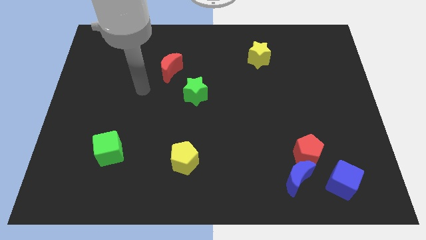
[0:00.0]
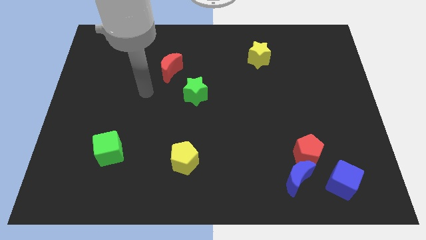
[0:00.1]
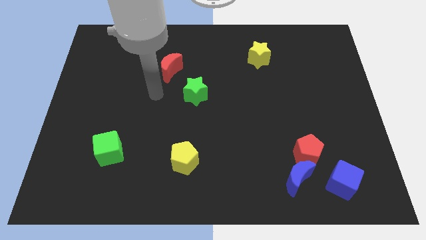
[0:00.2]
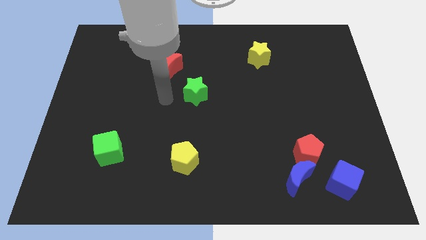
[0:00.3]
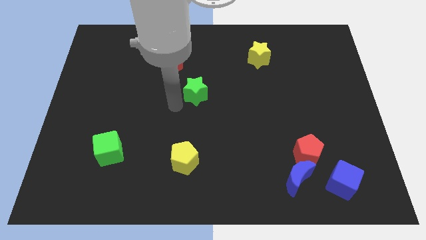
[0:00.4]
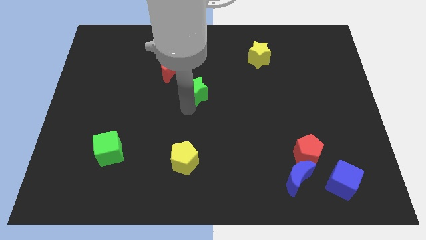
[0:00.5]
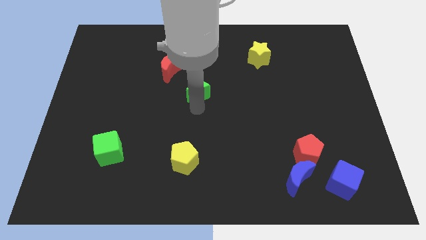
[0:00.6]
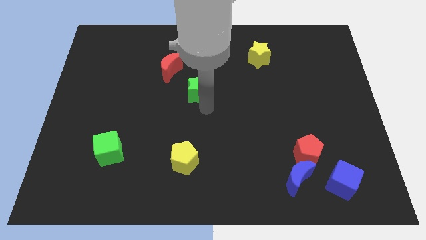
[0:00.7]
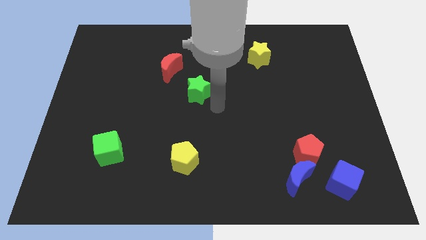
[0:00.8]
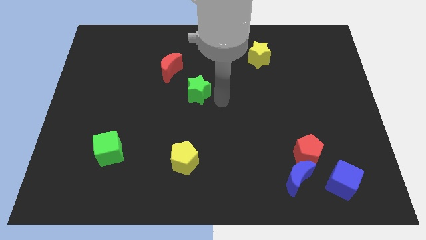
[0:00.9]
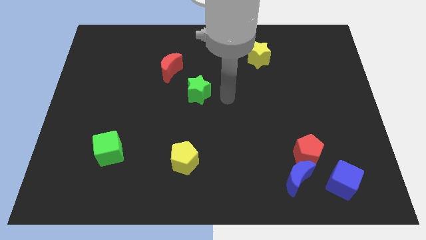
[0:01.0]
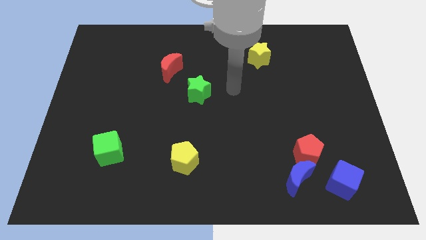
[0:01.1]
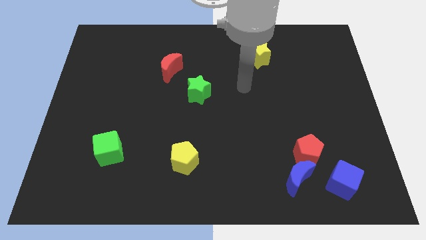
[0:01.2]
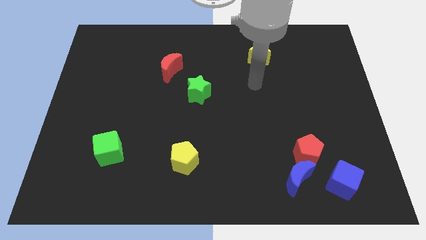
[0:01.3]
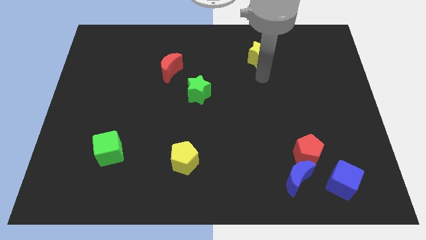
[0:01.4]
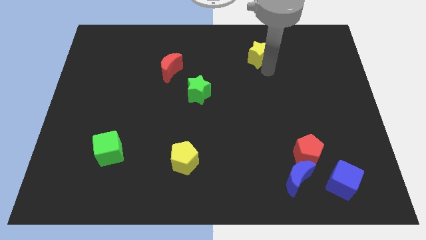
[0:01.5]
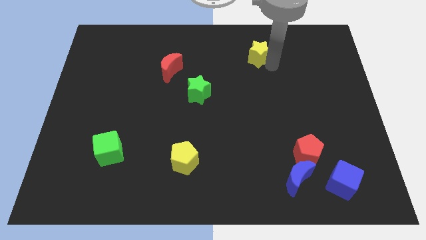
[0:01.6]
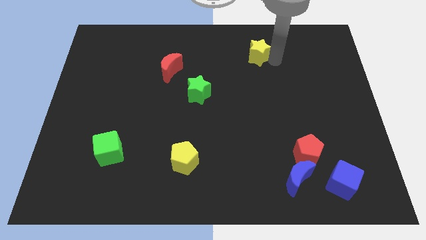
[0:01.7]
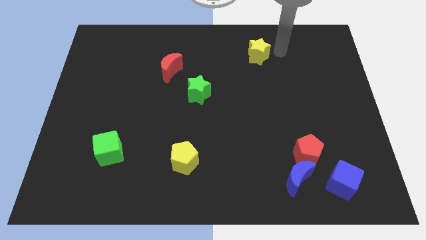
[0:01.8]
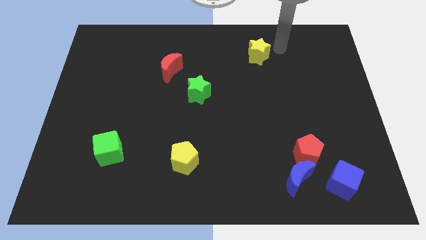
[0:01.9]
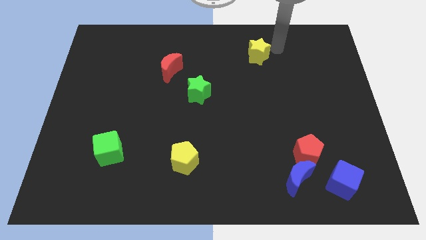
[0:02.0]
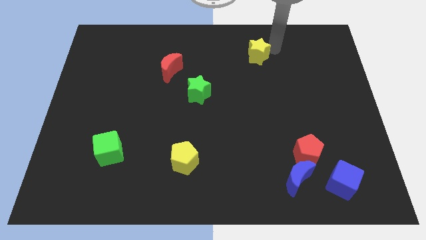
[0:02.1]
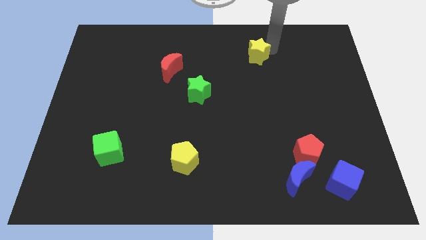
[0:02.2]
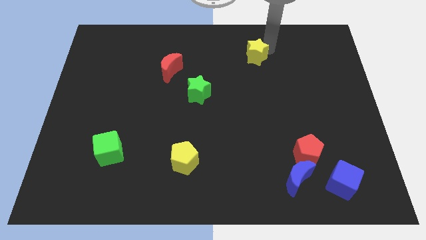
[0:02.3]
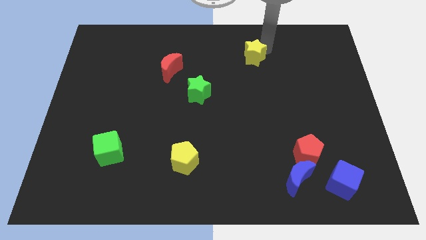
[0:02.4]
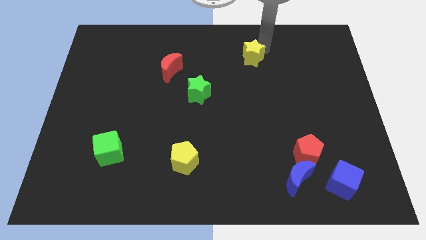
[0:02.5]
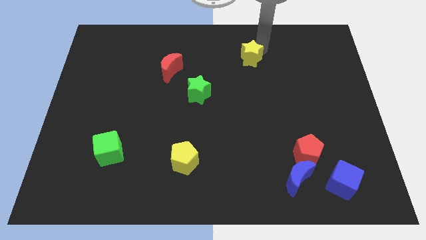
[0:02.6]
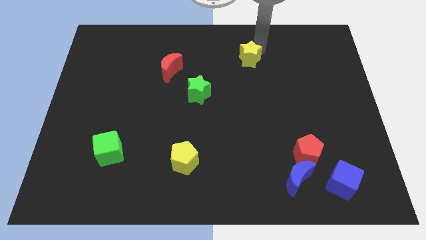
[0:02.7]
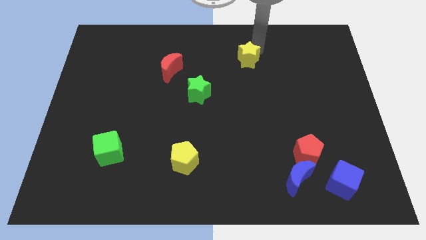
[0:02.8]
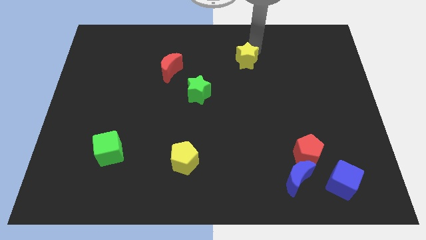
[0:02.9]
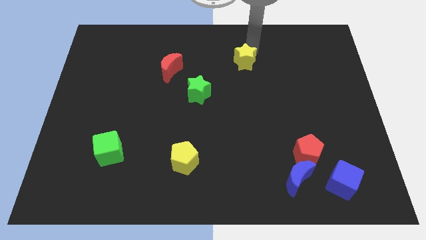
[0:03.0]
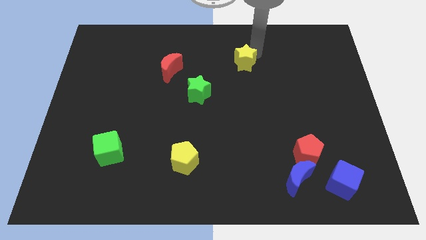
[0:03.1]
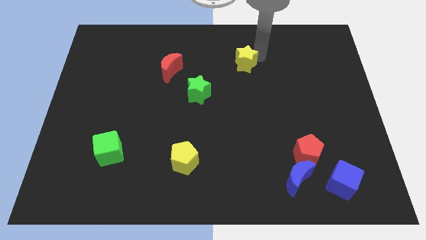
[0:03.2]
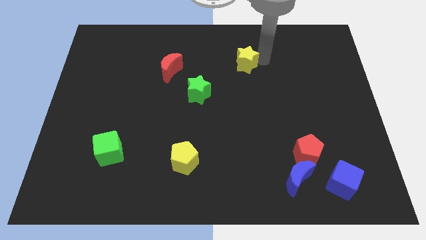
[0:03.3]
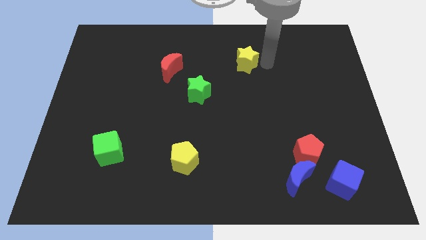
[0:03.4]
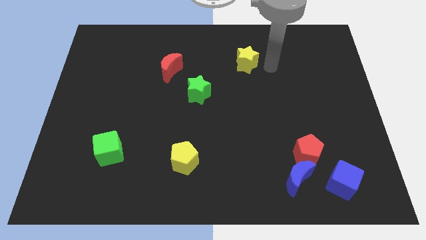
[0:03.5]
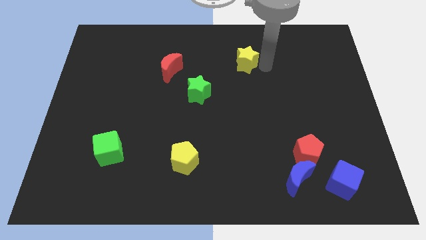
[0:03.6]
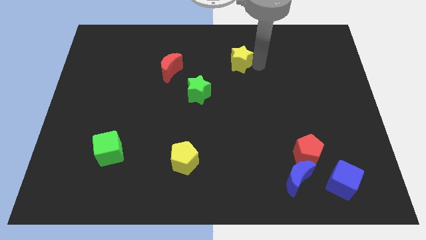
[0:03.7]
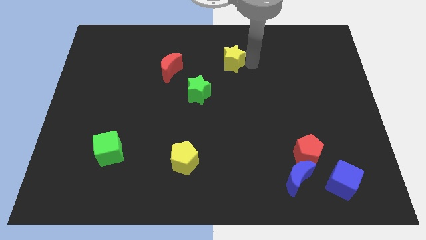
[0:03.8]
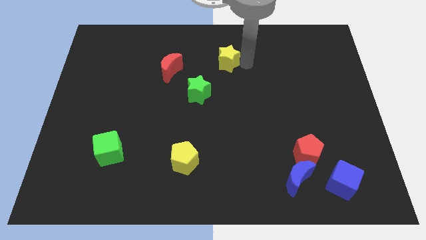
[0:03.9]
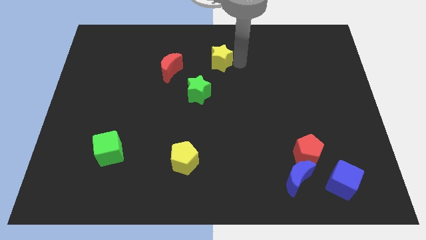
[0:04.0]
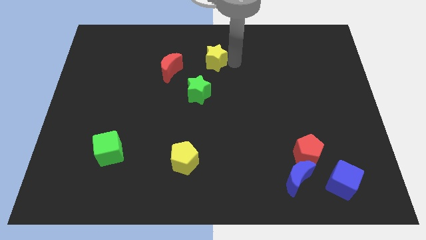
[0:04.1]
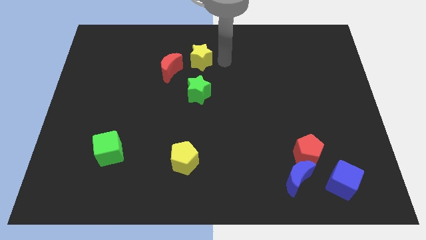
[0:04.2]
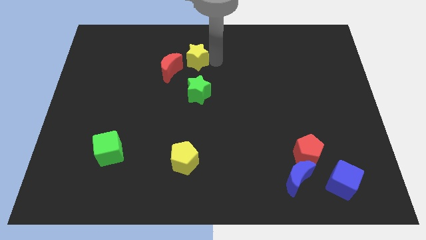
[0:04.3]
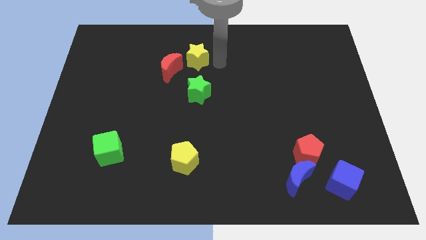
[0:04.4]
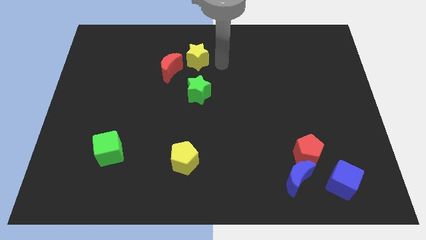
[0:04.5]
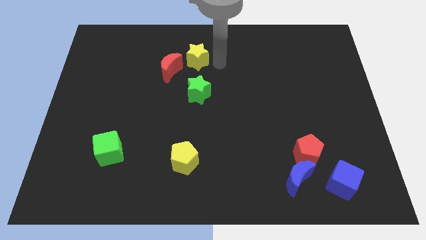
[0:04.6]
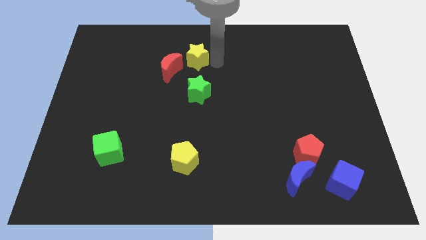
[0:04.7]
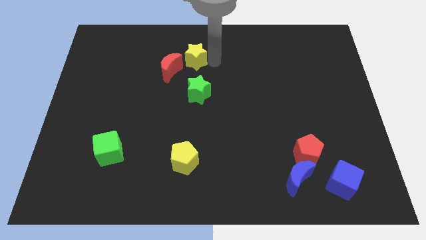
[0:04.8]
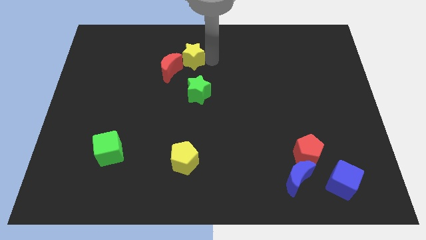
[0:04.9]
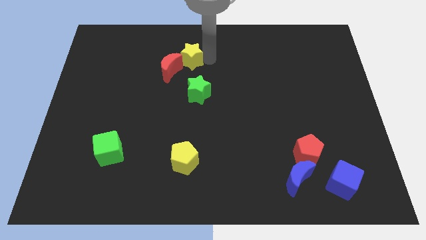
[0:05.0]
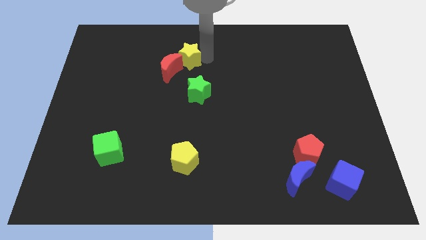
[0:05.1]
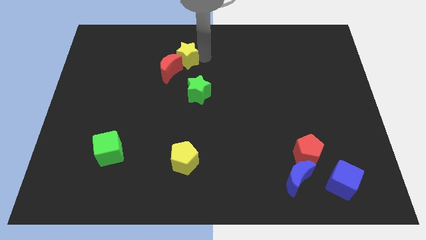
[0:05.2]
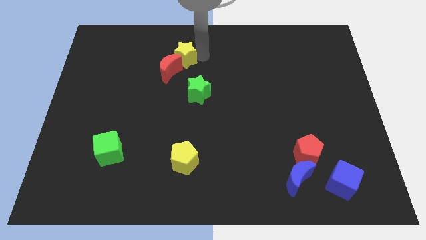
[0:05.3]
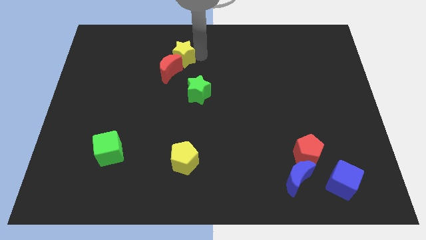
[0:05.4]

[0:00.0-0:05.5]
slide the yellow star to the left

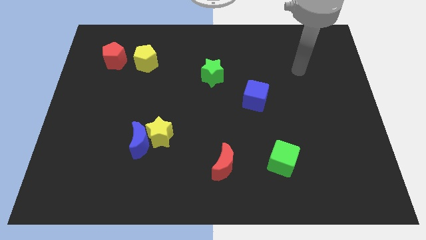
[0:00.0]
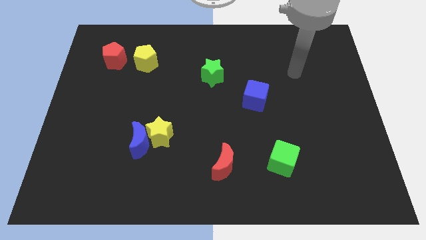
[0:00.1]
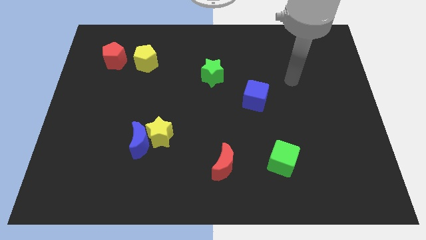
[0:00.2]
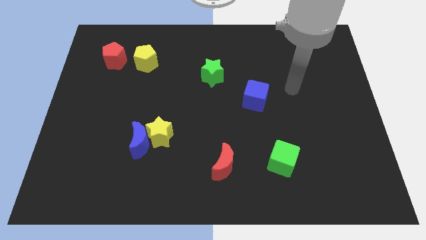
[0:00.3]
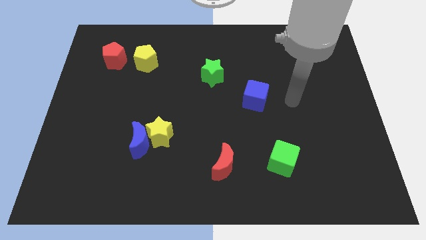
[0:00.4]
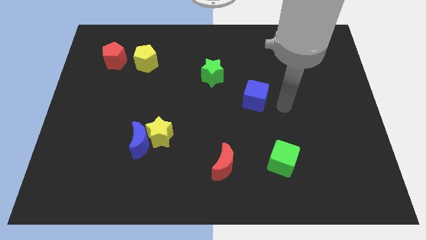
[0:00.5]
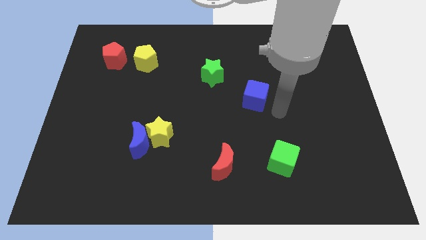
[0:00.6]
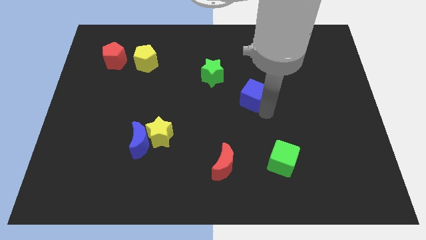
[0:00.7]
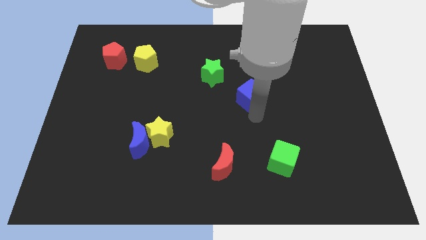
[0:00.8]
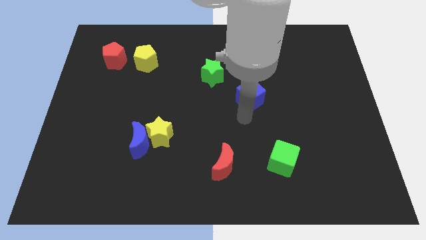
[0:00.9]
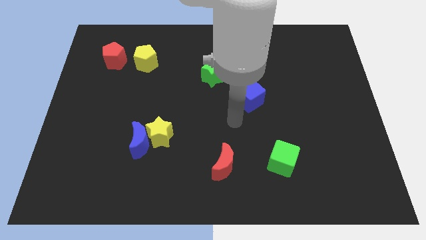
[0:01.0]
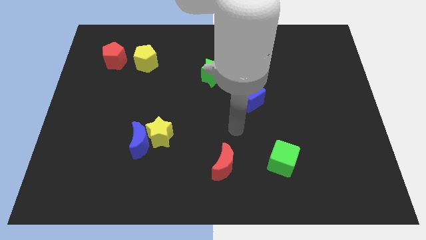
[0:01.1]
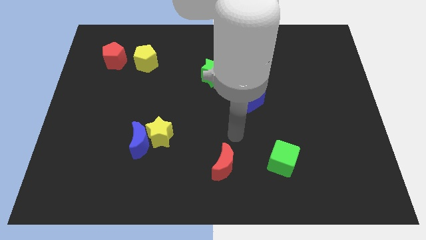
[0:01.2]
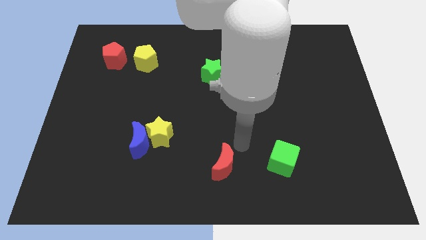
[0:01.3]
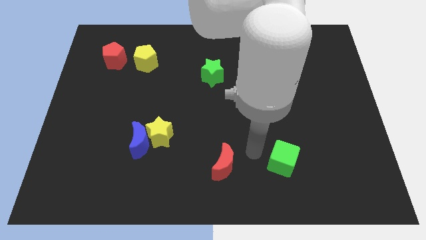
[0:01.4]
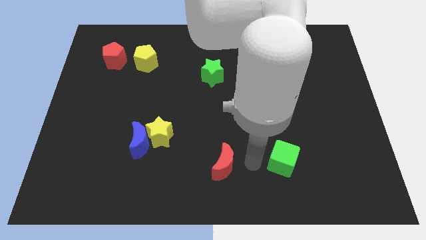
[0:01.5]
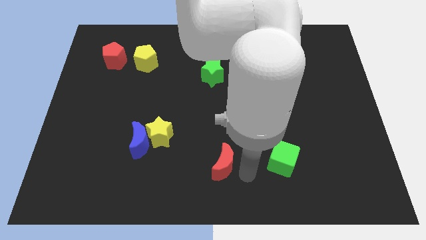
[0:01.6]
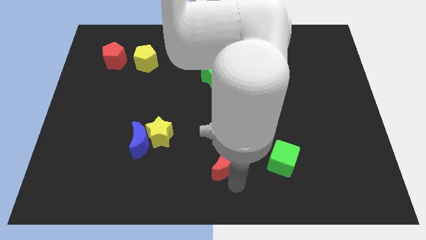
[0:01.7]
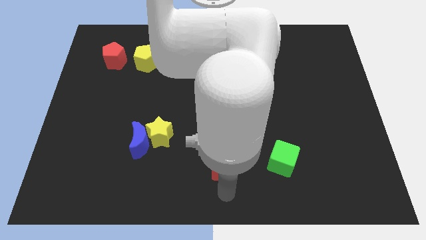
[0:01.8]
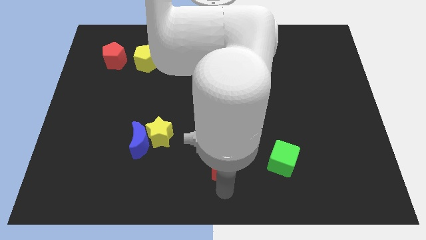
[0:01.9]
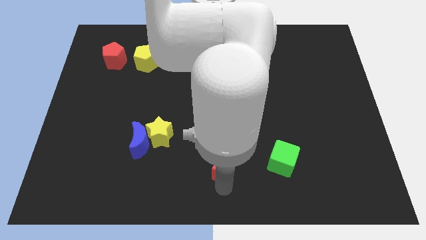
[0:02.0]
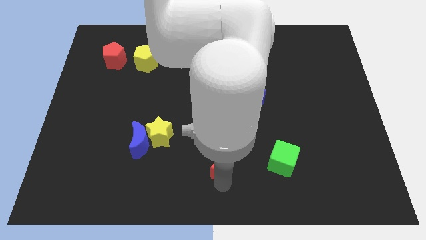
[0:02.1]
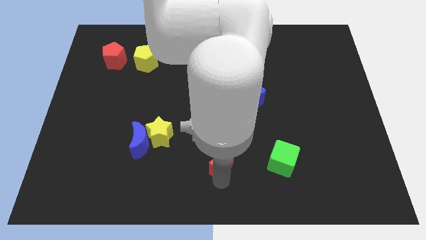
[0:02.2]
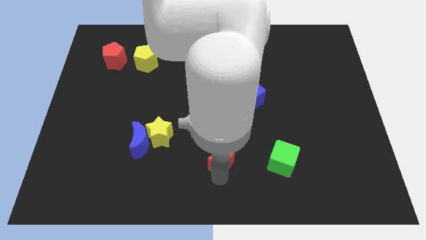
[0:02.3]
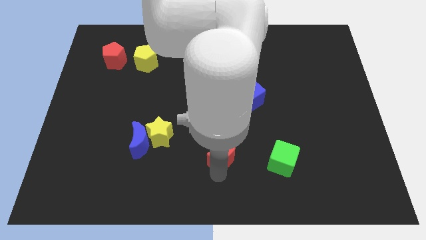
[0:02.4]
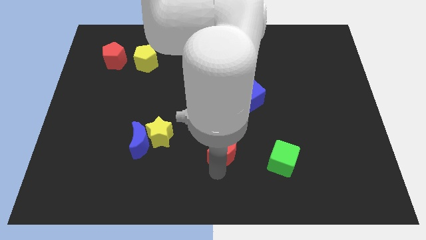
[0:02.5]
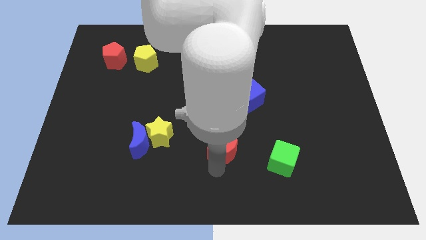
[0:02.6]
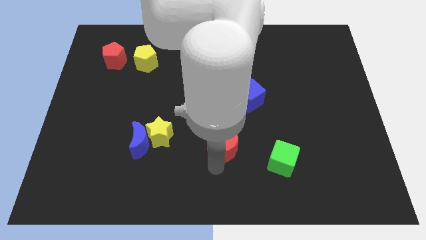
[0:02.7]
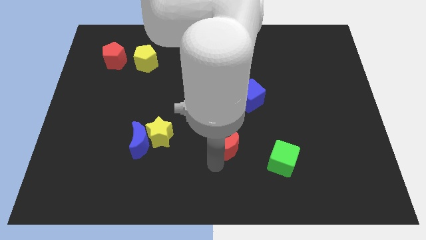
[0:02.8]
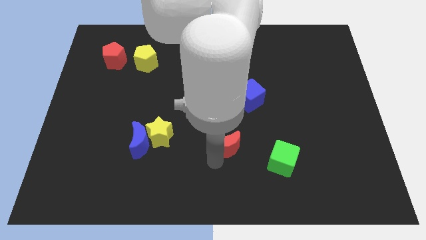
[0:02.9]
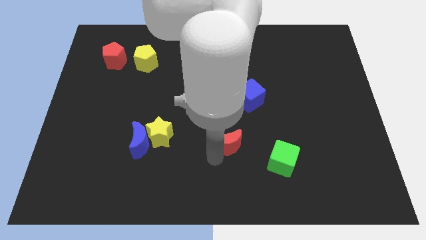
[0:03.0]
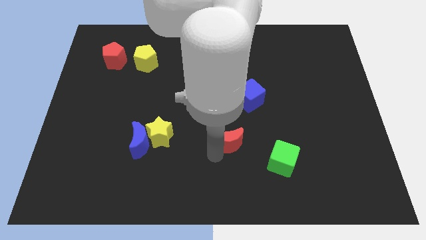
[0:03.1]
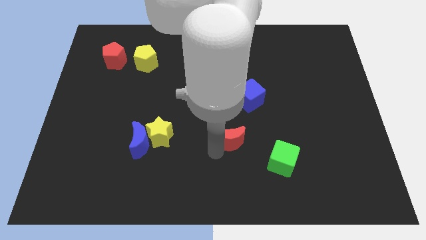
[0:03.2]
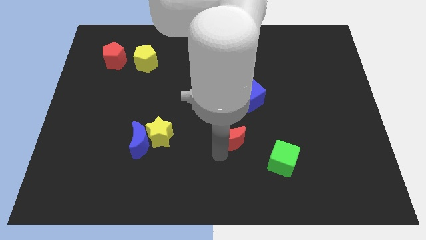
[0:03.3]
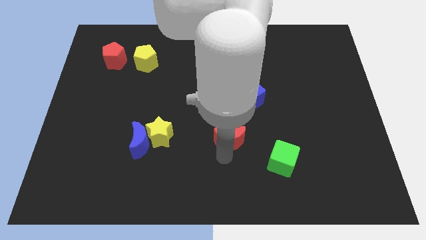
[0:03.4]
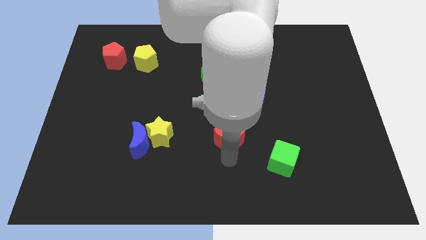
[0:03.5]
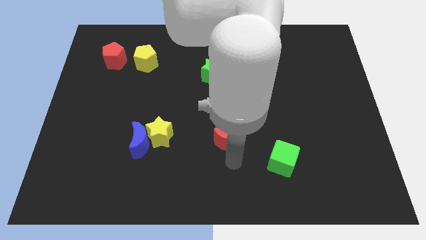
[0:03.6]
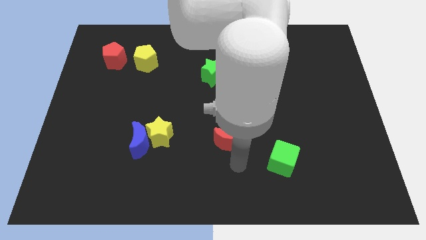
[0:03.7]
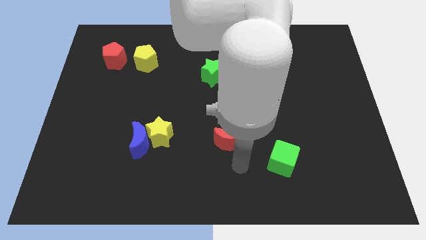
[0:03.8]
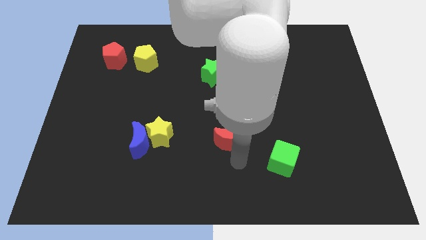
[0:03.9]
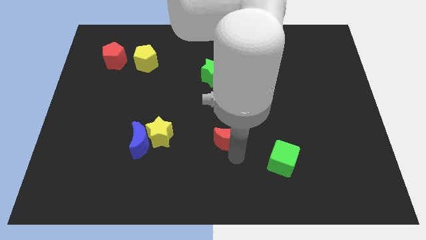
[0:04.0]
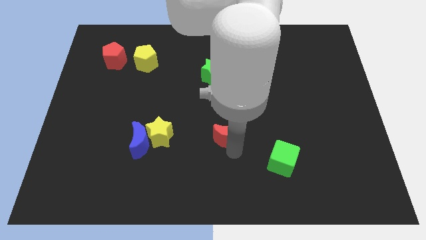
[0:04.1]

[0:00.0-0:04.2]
slightly push the red moon up
